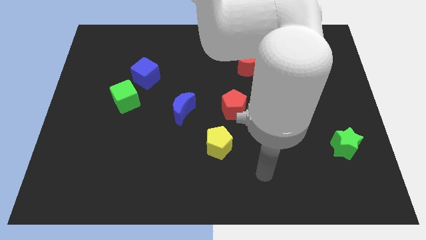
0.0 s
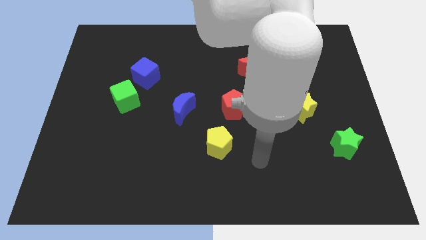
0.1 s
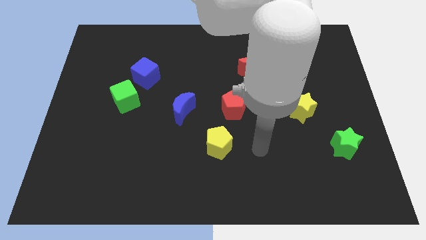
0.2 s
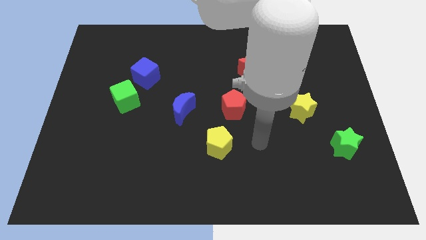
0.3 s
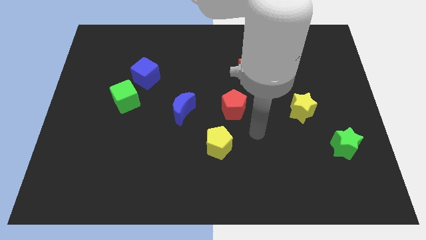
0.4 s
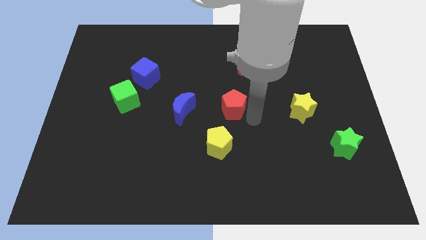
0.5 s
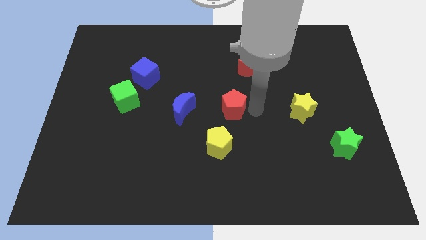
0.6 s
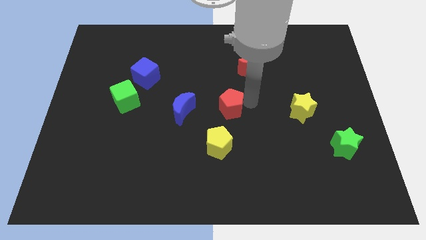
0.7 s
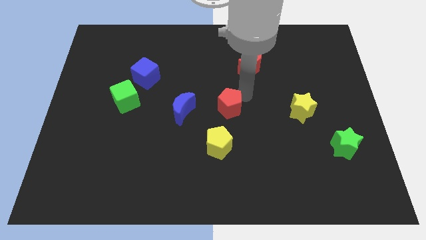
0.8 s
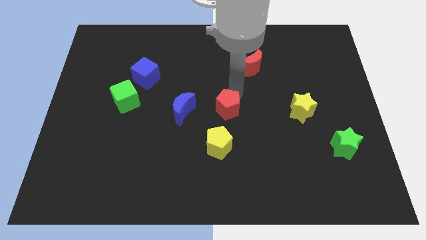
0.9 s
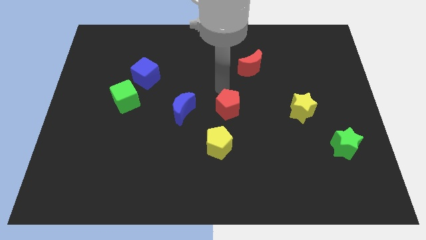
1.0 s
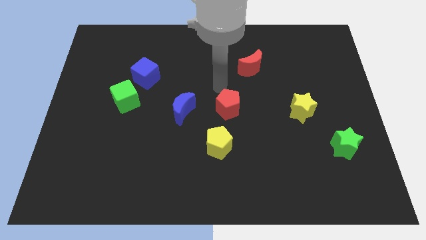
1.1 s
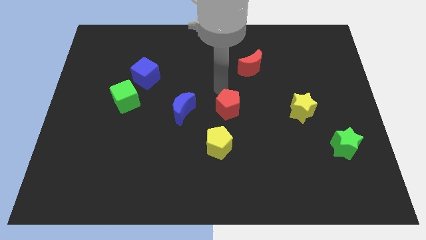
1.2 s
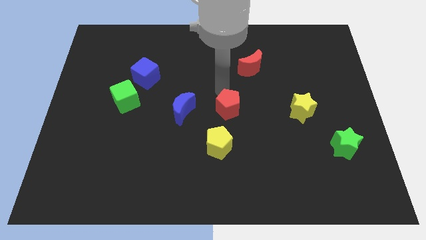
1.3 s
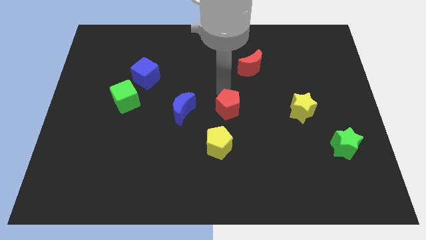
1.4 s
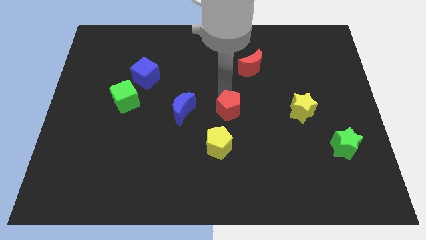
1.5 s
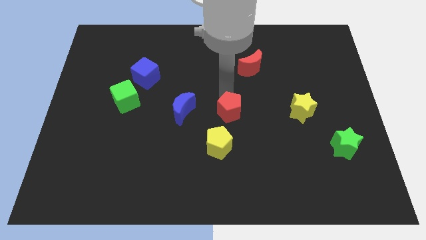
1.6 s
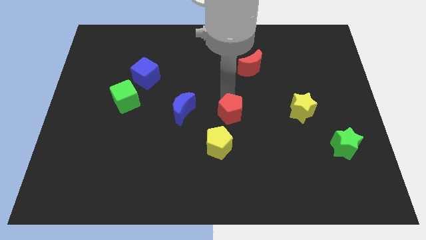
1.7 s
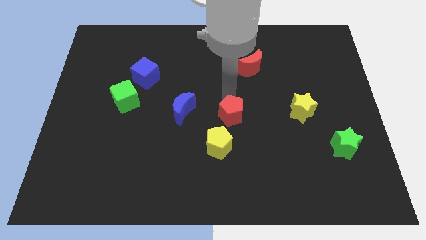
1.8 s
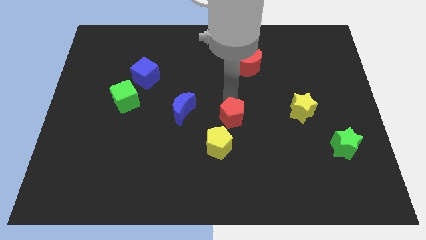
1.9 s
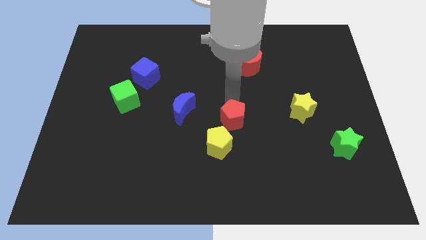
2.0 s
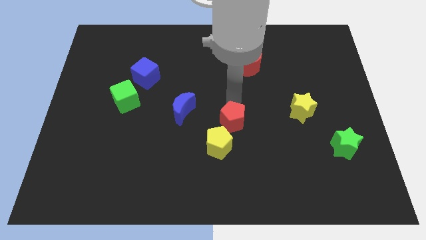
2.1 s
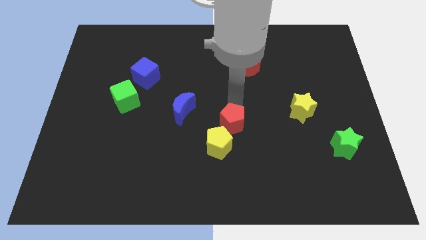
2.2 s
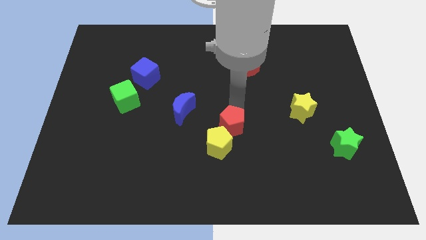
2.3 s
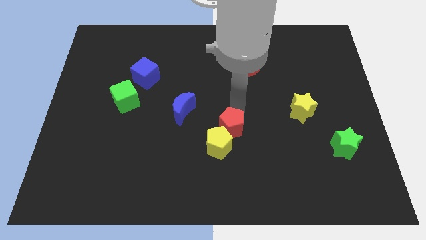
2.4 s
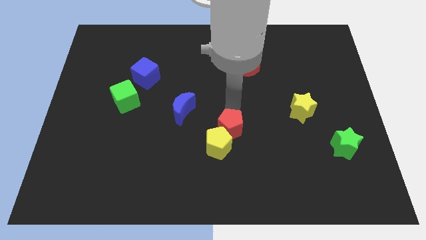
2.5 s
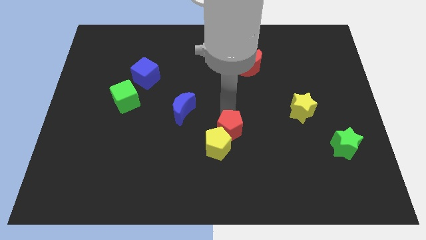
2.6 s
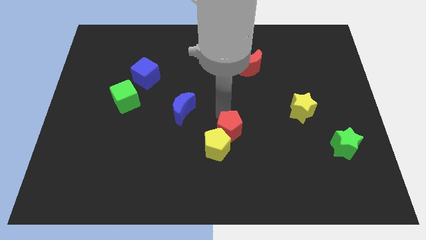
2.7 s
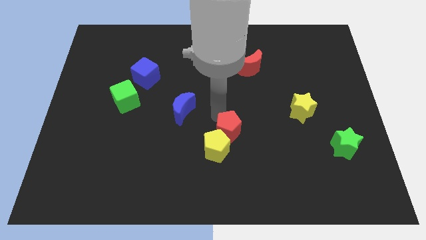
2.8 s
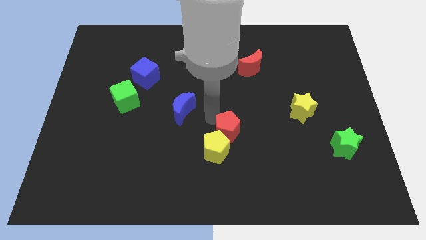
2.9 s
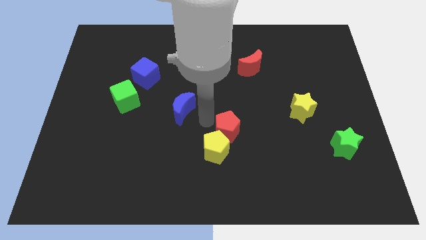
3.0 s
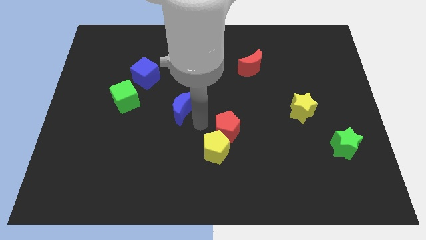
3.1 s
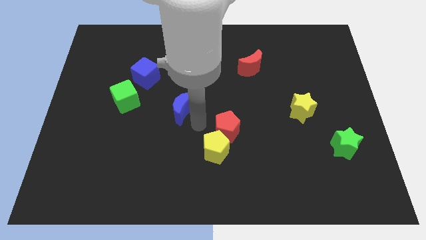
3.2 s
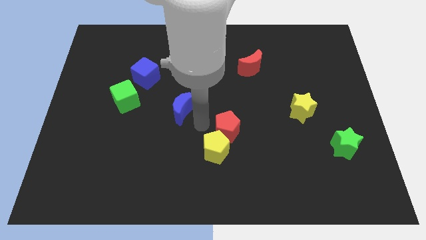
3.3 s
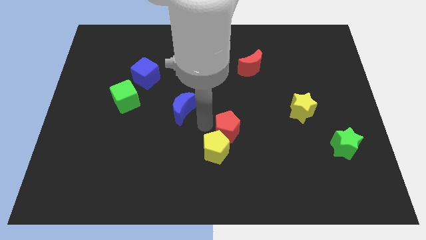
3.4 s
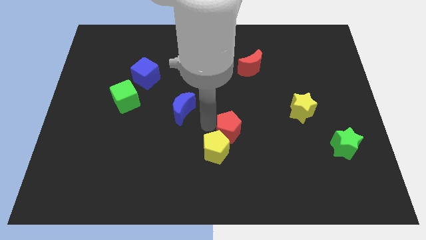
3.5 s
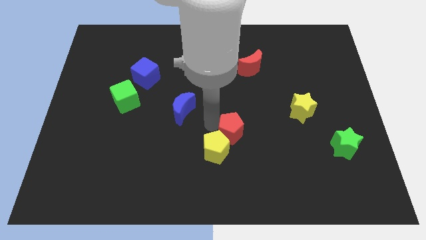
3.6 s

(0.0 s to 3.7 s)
move the red pentagon somewhat down

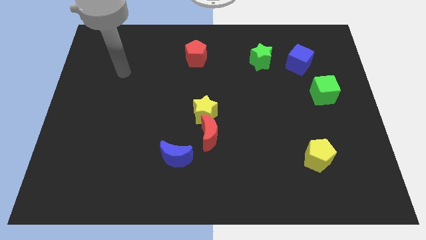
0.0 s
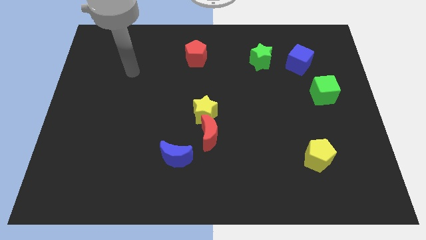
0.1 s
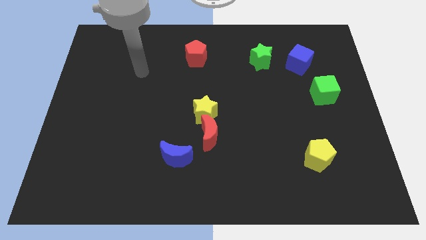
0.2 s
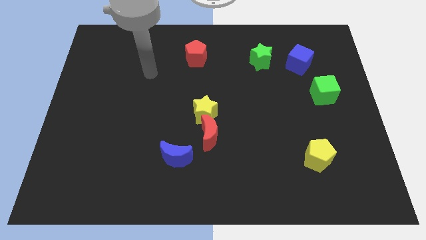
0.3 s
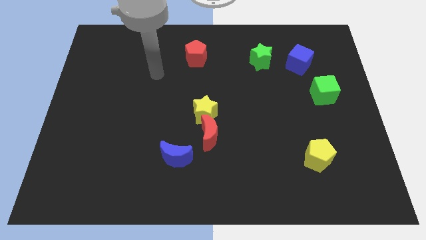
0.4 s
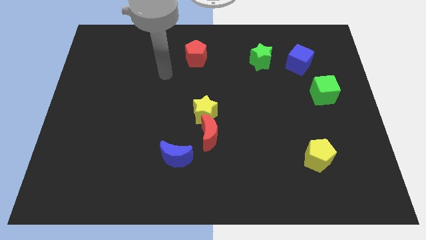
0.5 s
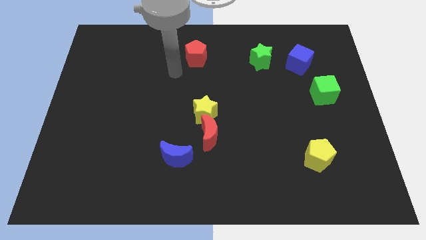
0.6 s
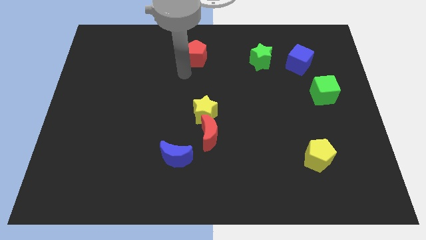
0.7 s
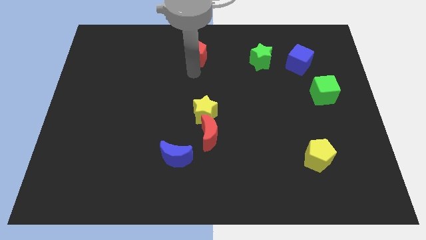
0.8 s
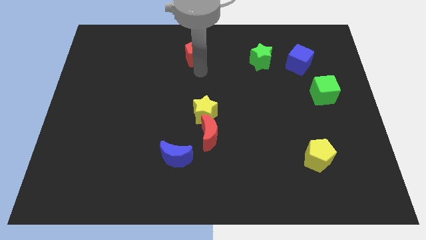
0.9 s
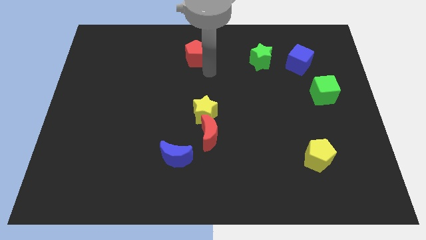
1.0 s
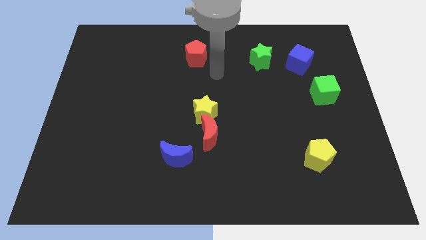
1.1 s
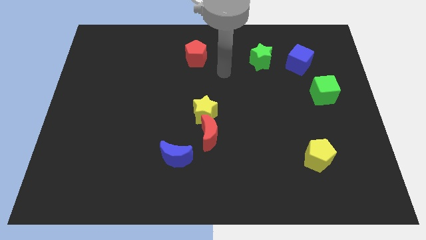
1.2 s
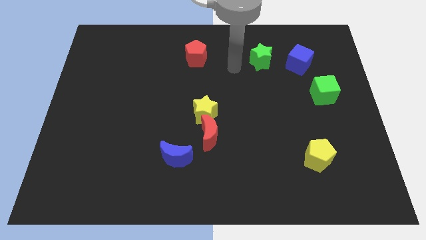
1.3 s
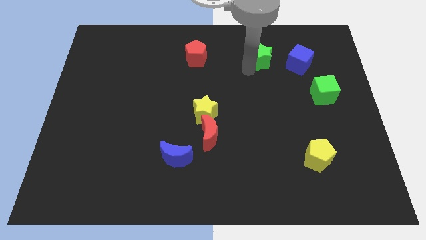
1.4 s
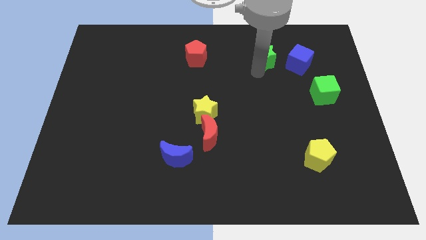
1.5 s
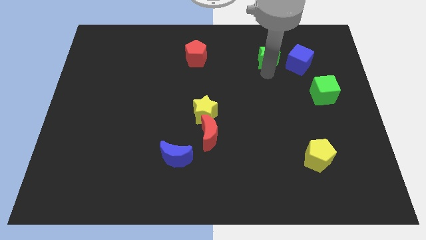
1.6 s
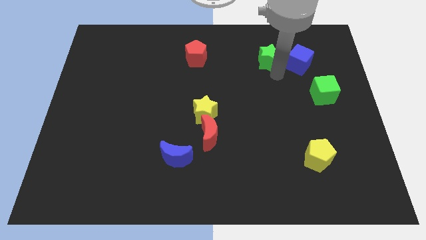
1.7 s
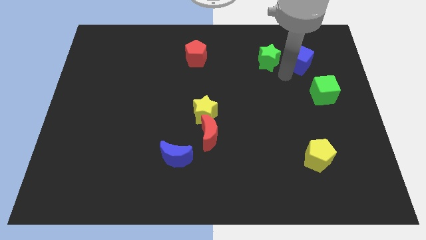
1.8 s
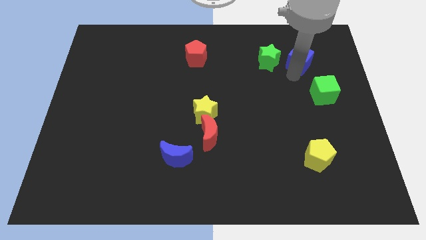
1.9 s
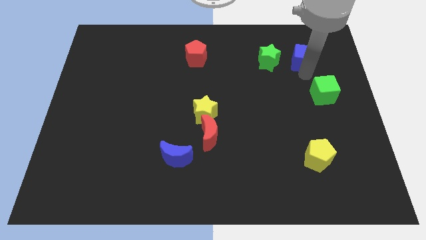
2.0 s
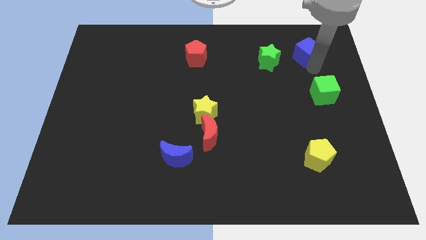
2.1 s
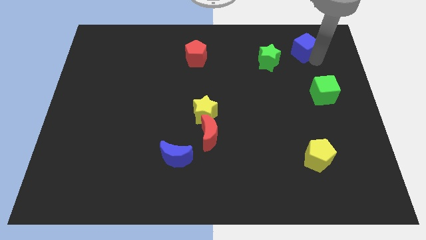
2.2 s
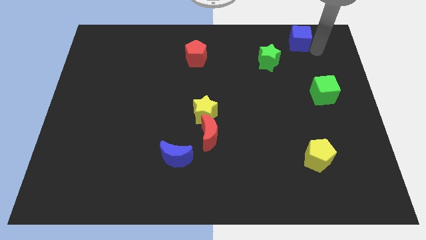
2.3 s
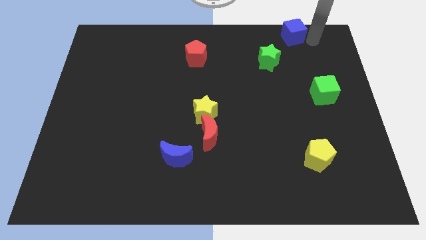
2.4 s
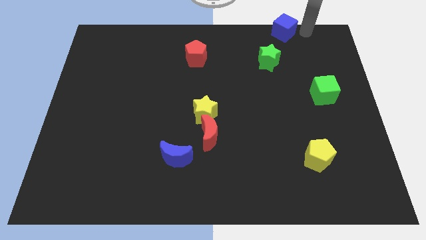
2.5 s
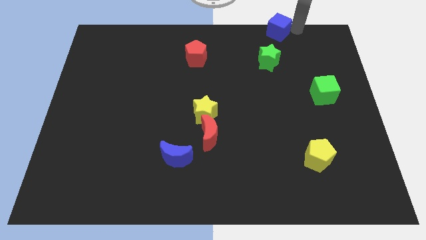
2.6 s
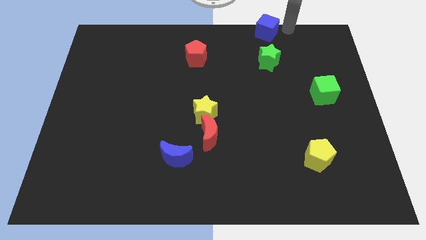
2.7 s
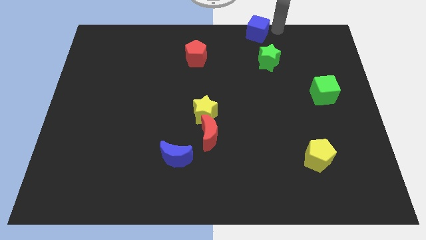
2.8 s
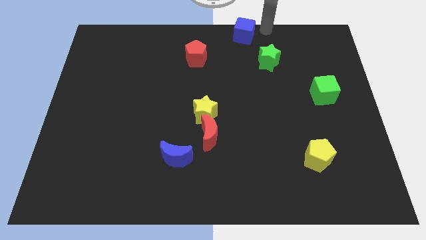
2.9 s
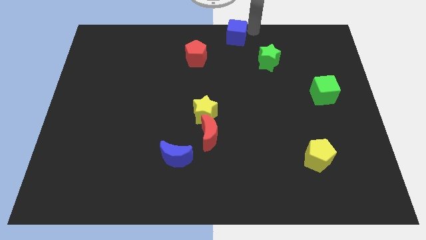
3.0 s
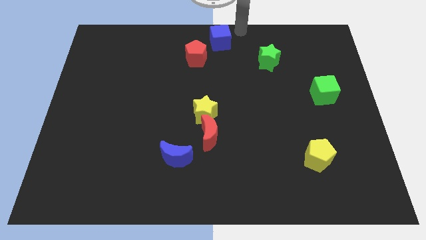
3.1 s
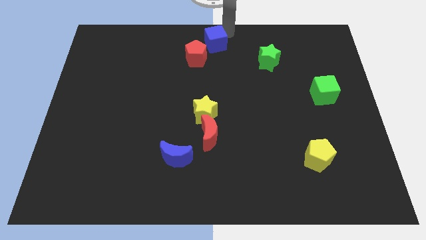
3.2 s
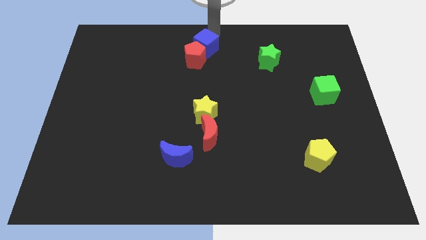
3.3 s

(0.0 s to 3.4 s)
slide the blue cube to the left

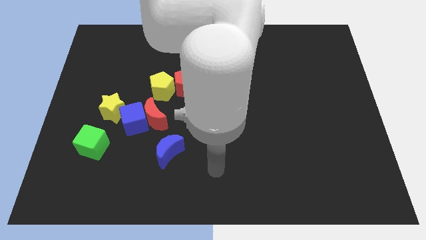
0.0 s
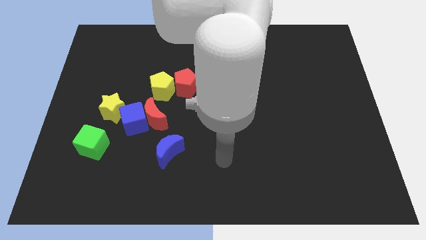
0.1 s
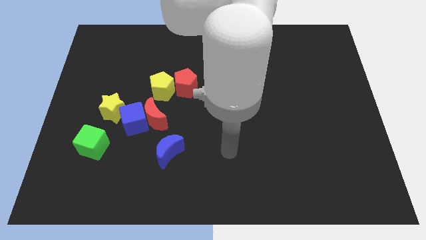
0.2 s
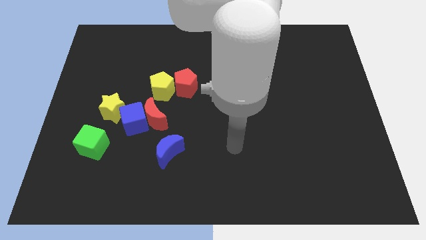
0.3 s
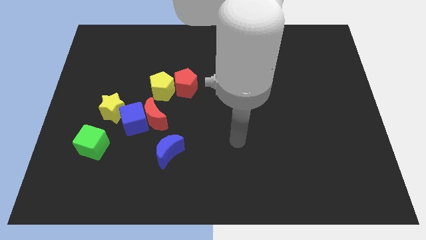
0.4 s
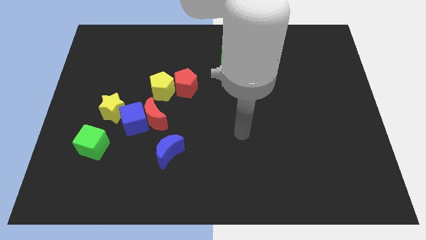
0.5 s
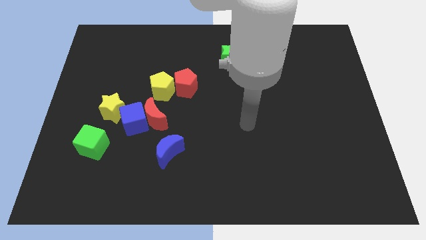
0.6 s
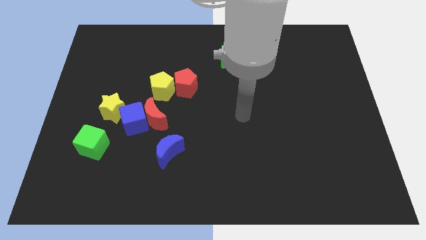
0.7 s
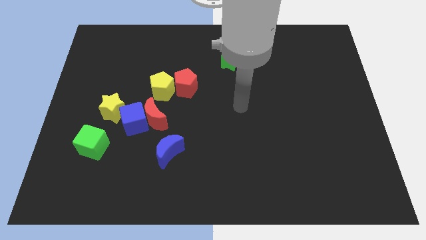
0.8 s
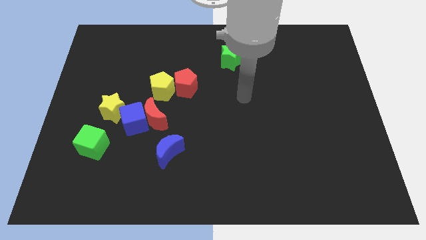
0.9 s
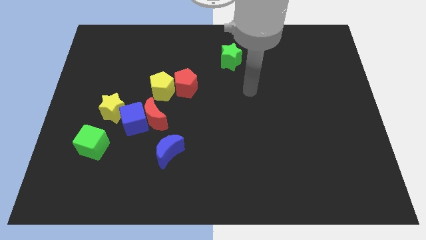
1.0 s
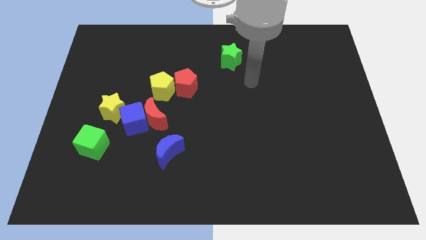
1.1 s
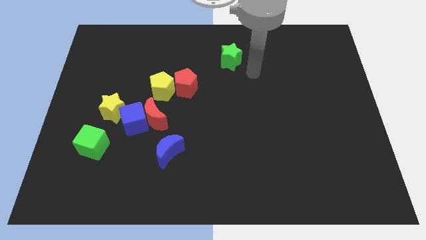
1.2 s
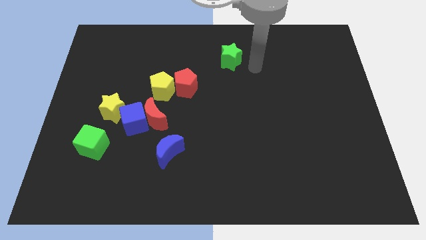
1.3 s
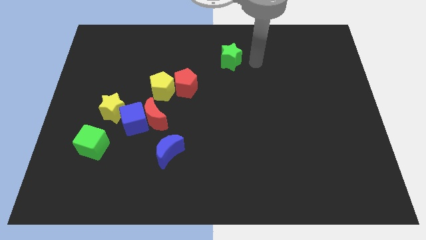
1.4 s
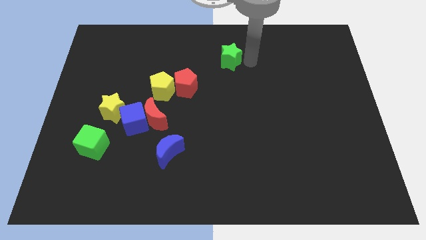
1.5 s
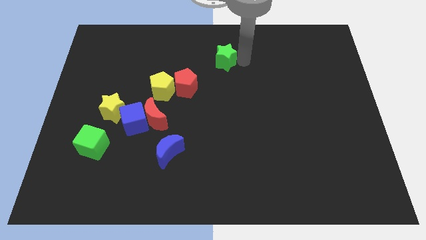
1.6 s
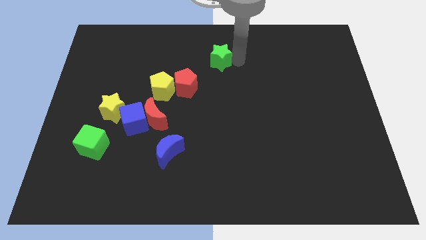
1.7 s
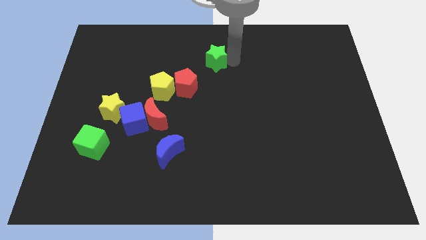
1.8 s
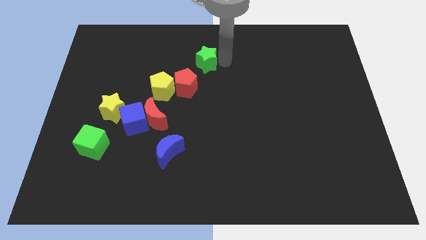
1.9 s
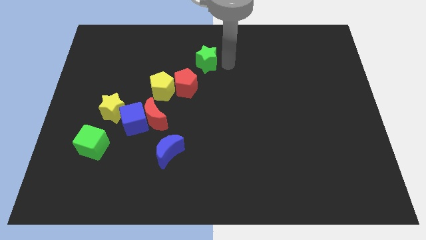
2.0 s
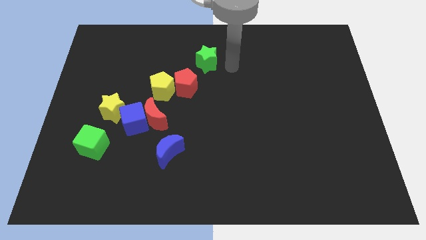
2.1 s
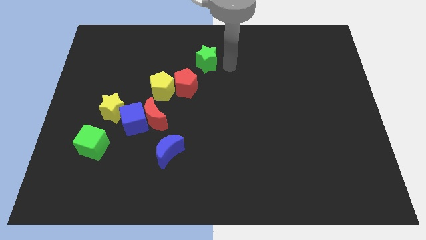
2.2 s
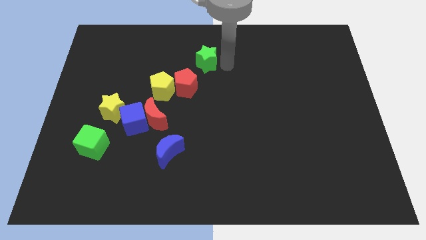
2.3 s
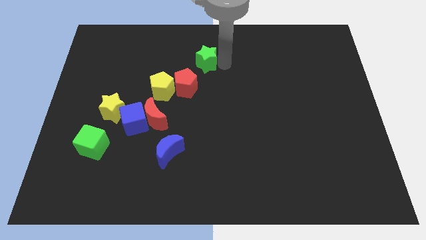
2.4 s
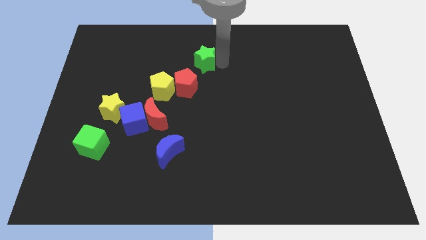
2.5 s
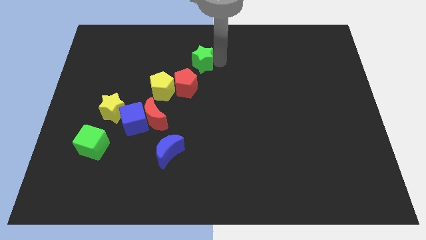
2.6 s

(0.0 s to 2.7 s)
push the green star left slightly
